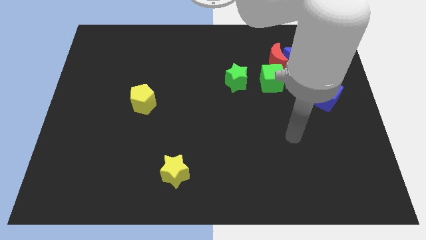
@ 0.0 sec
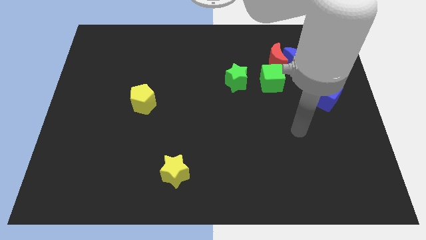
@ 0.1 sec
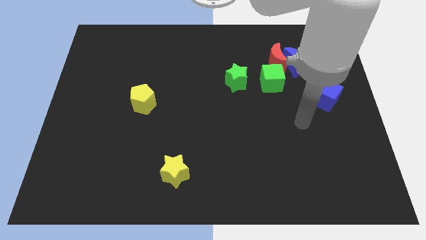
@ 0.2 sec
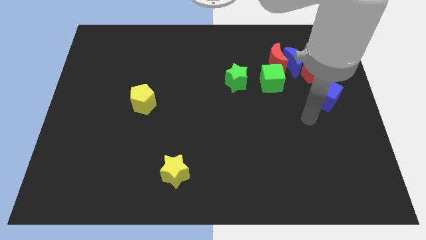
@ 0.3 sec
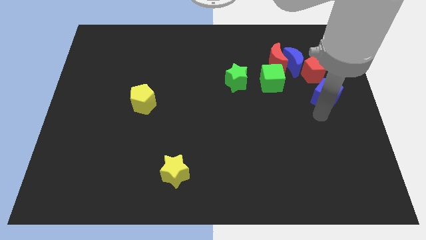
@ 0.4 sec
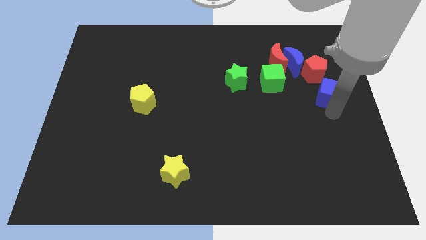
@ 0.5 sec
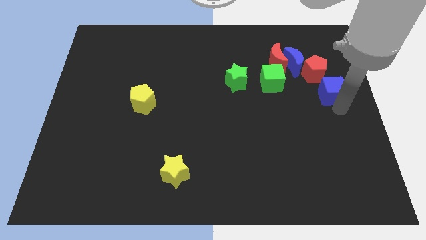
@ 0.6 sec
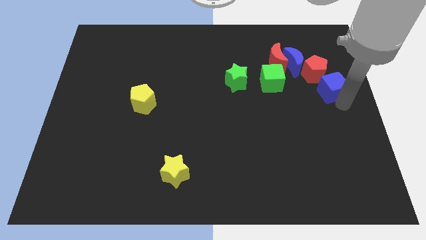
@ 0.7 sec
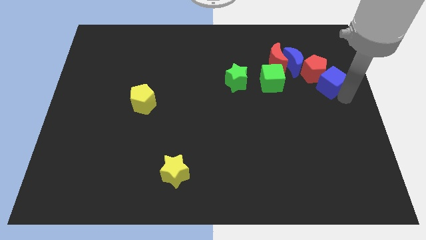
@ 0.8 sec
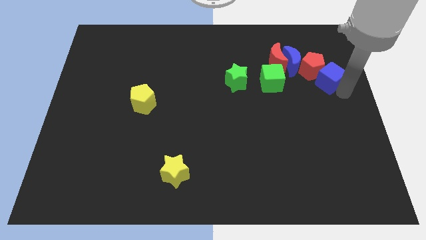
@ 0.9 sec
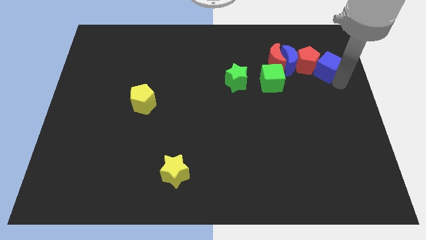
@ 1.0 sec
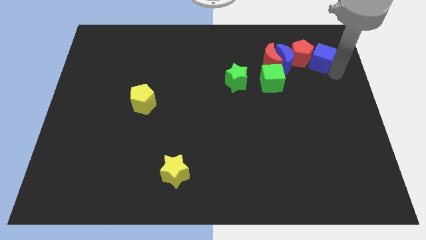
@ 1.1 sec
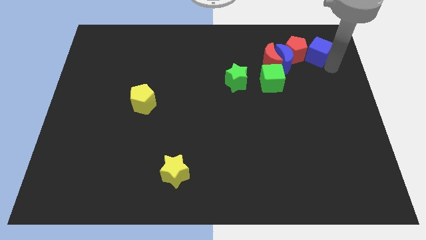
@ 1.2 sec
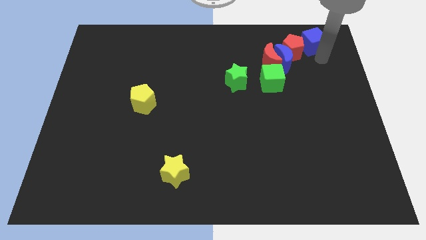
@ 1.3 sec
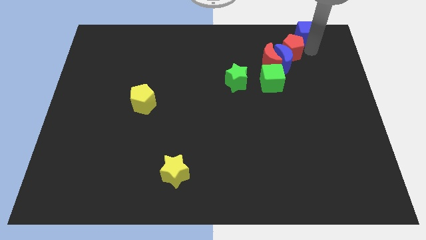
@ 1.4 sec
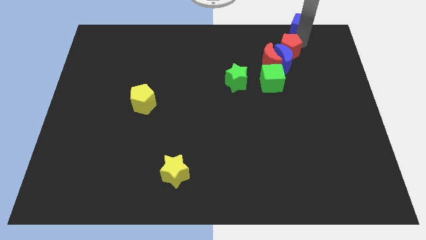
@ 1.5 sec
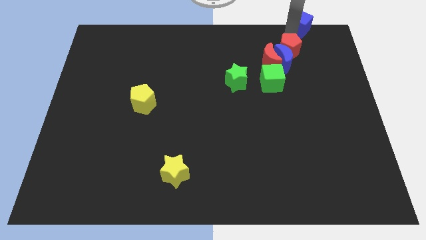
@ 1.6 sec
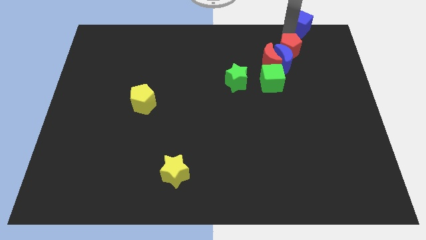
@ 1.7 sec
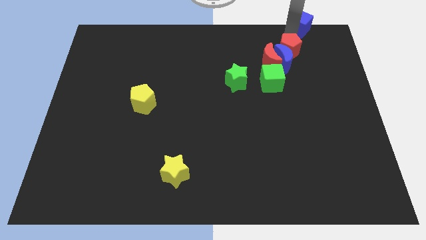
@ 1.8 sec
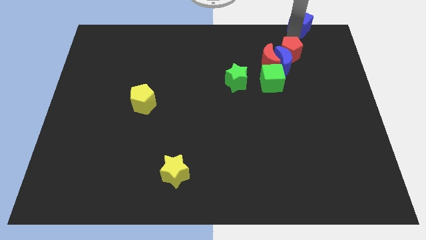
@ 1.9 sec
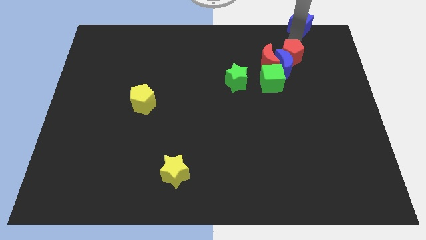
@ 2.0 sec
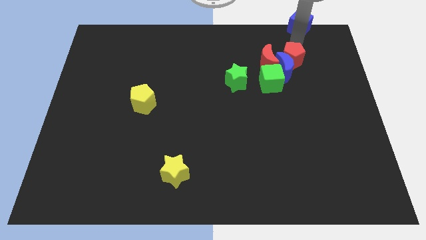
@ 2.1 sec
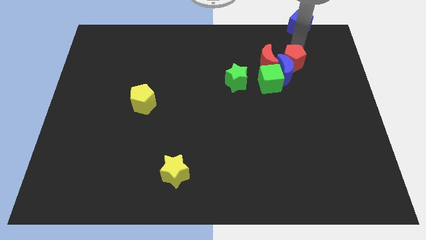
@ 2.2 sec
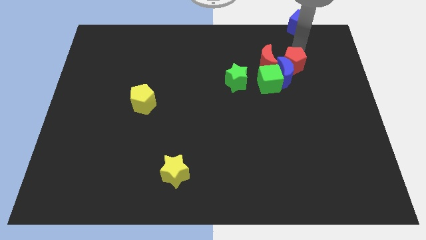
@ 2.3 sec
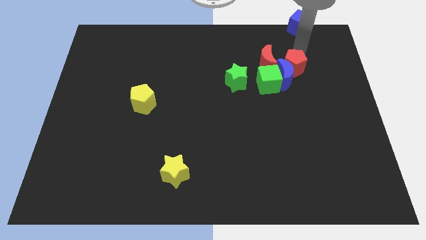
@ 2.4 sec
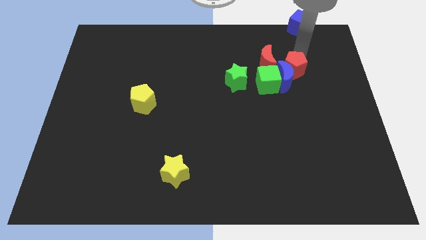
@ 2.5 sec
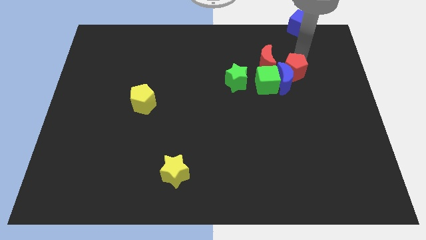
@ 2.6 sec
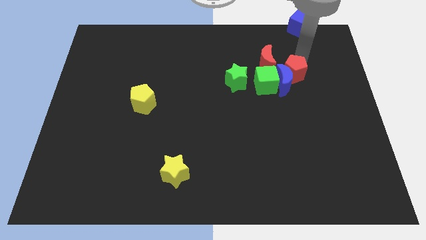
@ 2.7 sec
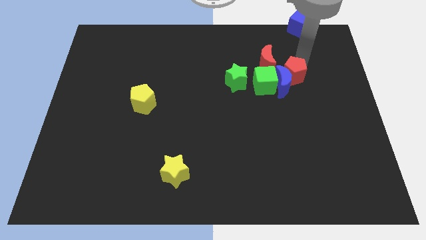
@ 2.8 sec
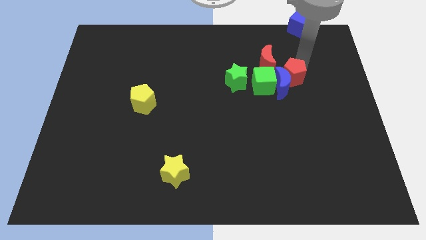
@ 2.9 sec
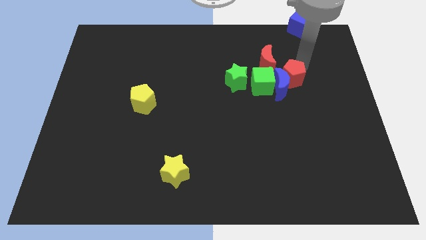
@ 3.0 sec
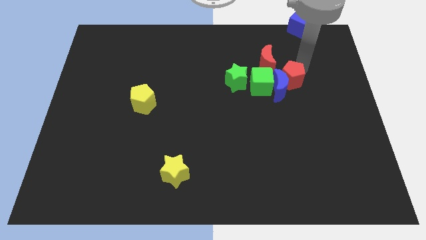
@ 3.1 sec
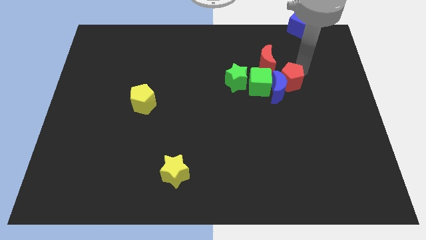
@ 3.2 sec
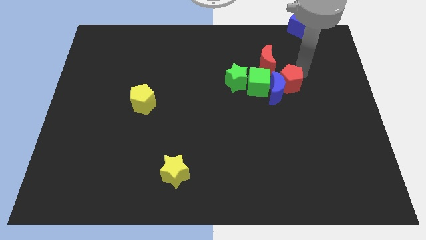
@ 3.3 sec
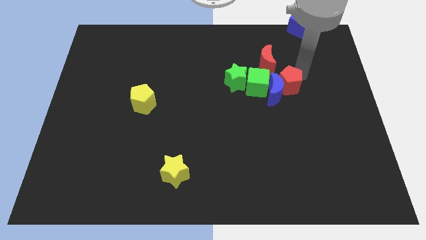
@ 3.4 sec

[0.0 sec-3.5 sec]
slightly slide the red pentagon down and then to the left

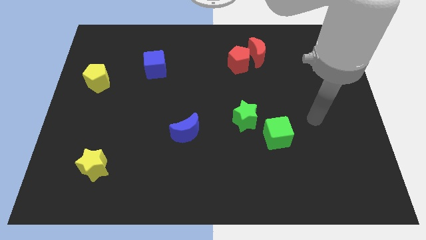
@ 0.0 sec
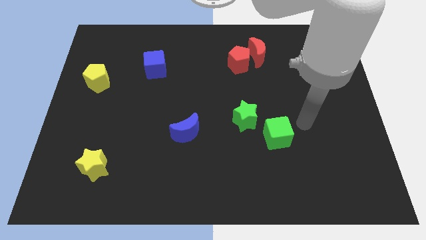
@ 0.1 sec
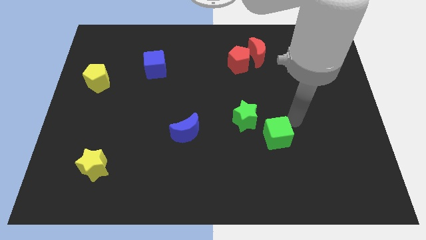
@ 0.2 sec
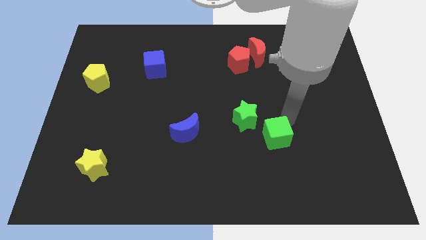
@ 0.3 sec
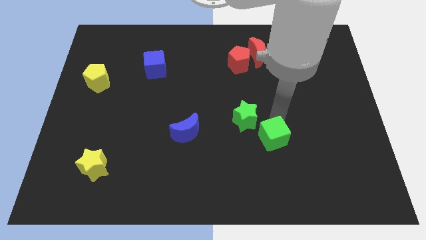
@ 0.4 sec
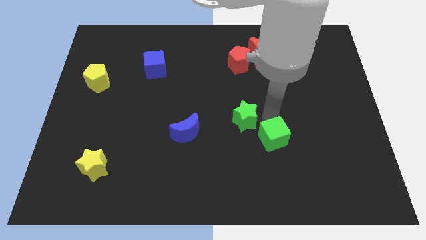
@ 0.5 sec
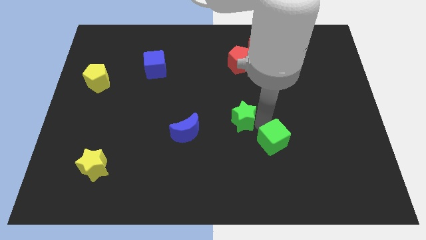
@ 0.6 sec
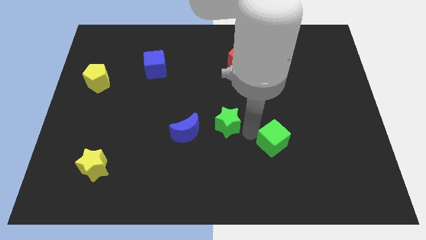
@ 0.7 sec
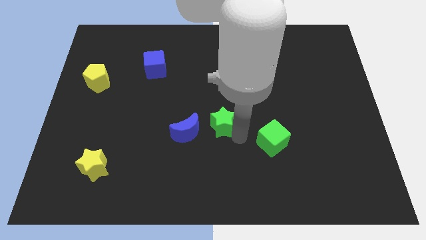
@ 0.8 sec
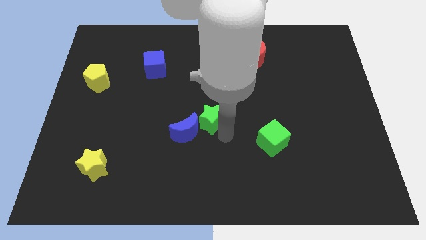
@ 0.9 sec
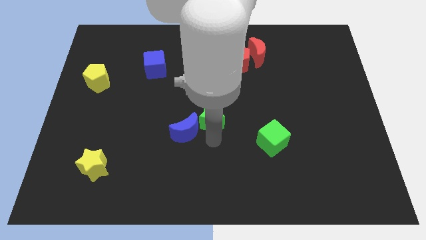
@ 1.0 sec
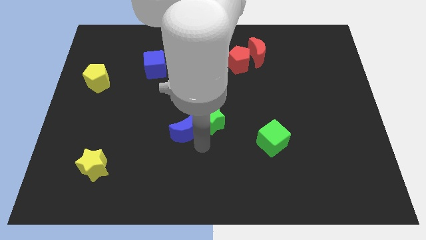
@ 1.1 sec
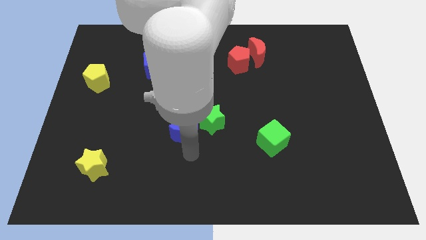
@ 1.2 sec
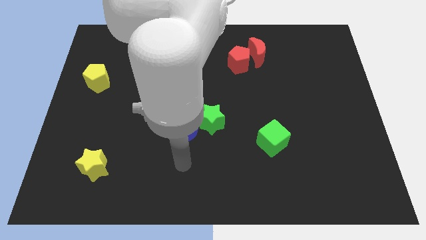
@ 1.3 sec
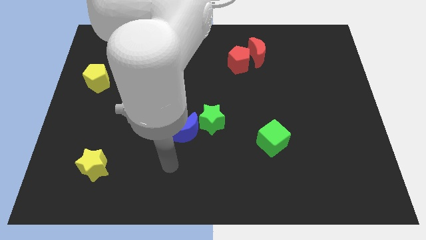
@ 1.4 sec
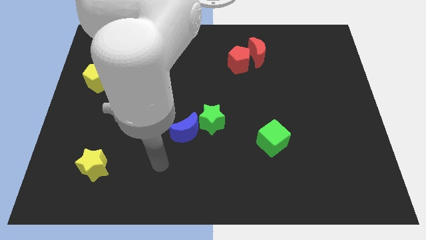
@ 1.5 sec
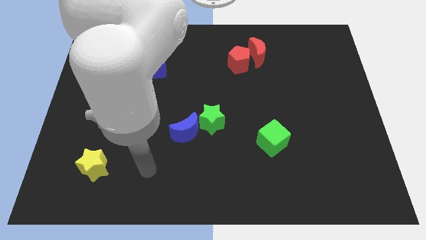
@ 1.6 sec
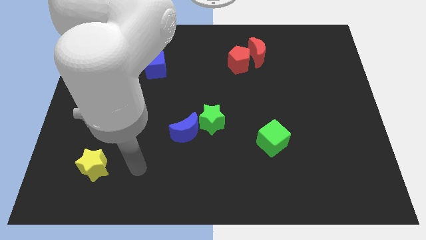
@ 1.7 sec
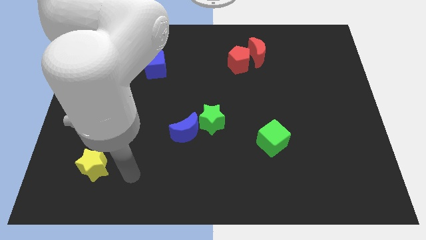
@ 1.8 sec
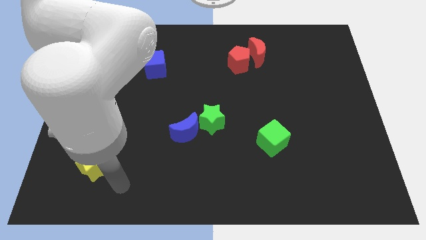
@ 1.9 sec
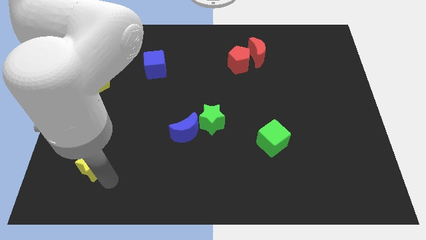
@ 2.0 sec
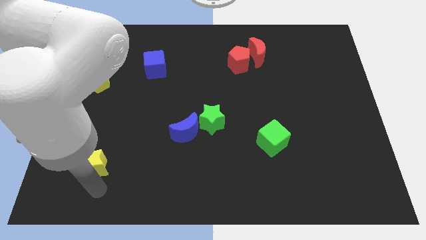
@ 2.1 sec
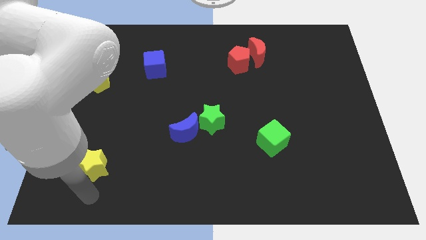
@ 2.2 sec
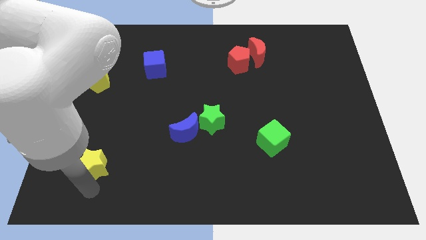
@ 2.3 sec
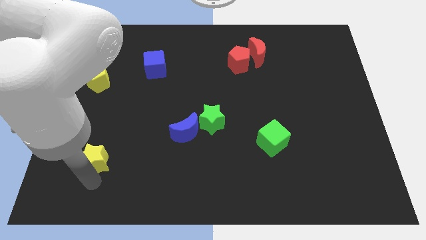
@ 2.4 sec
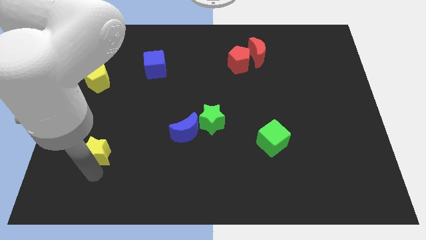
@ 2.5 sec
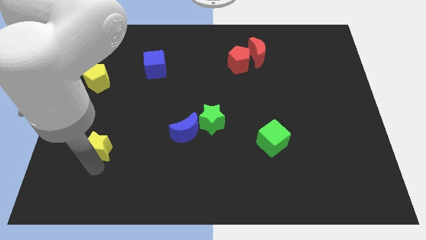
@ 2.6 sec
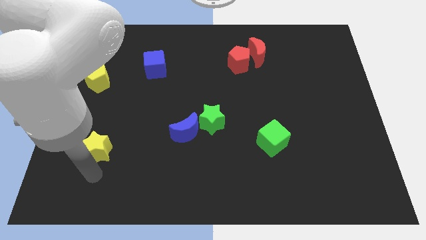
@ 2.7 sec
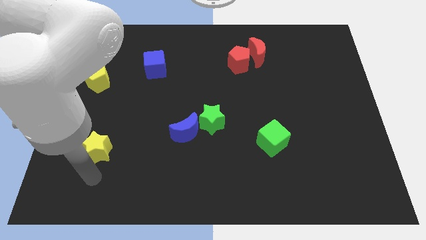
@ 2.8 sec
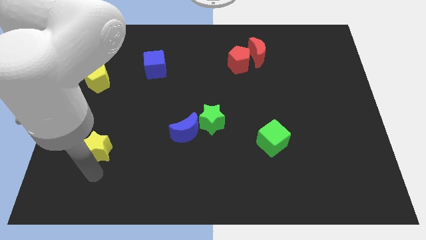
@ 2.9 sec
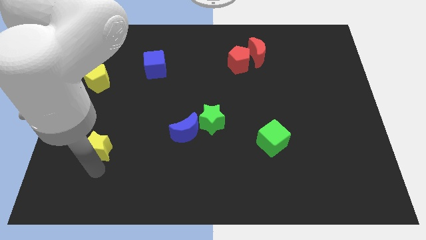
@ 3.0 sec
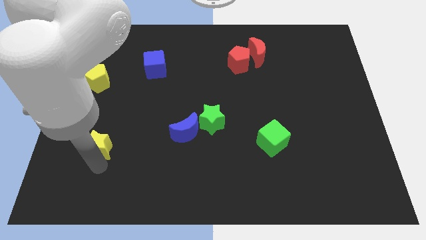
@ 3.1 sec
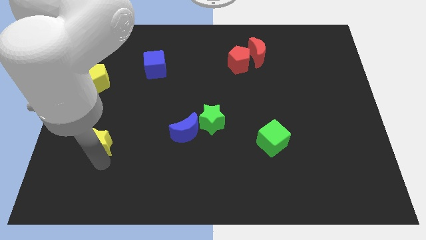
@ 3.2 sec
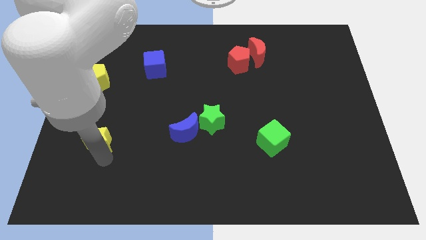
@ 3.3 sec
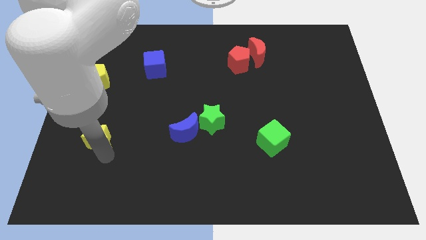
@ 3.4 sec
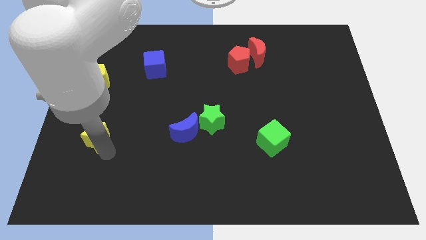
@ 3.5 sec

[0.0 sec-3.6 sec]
slightly move the yellow star upwards

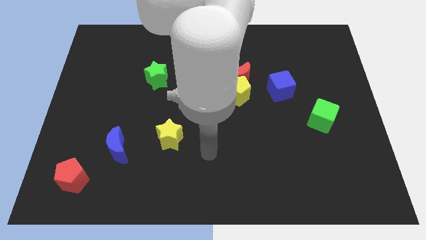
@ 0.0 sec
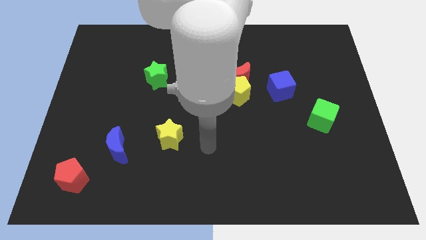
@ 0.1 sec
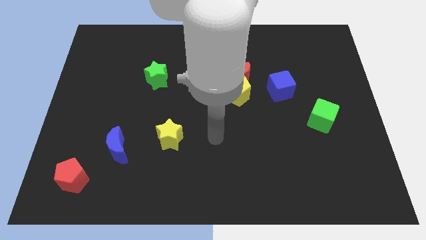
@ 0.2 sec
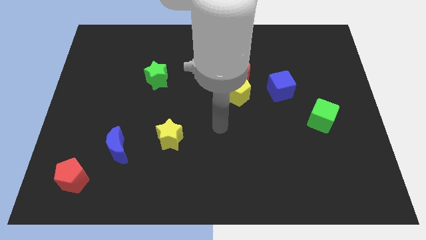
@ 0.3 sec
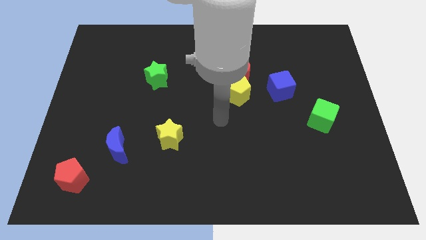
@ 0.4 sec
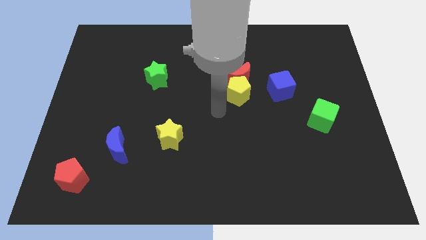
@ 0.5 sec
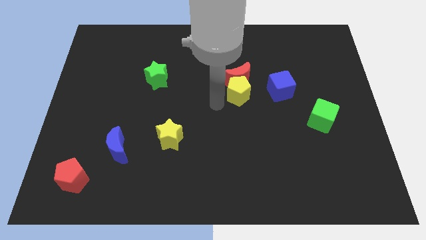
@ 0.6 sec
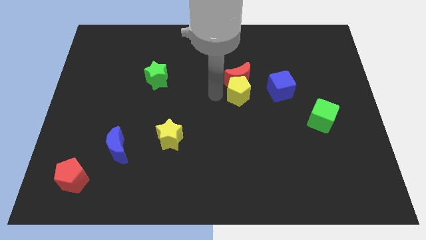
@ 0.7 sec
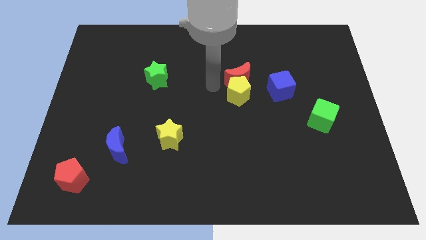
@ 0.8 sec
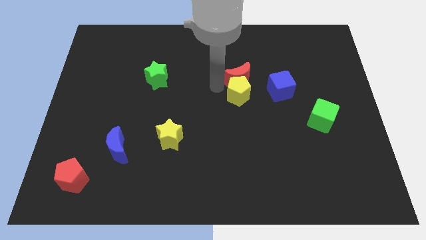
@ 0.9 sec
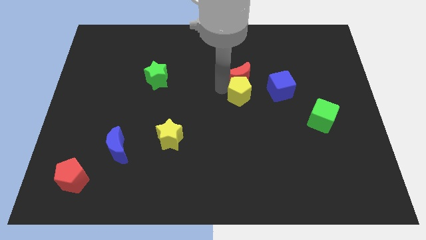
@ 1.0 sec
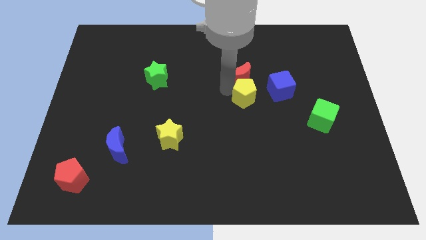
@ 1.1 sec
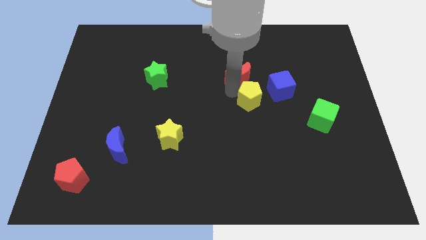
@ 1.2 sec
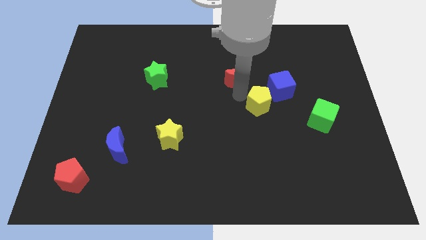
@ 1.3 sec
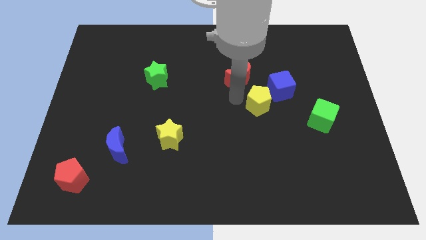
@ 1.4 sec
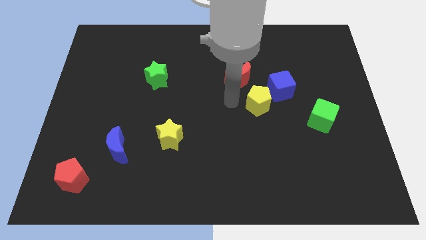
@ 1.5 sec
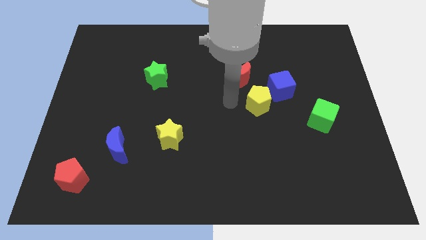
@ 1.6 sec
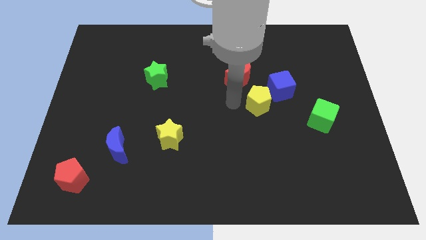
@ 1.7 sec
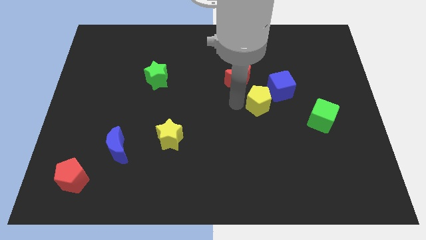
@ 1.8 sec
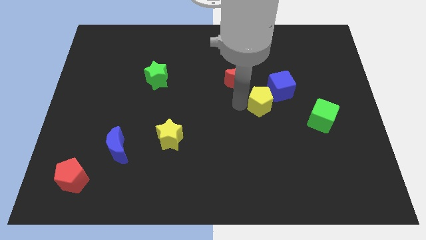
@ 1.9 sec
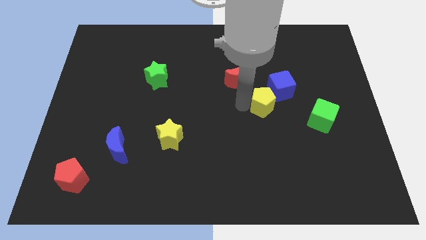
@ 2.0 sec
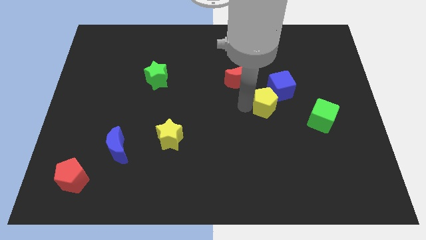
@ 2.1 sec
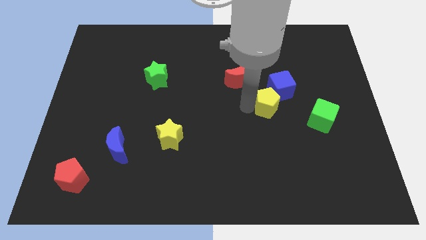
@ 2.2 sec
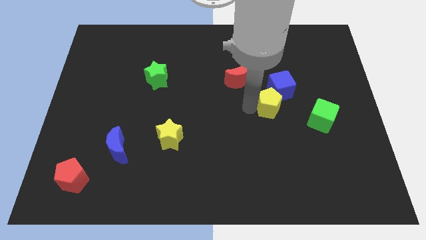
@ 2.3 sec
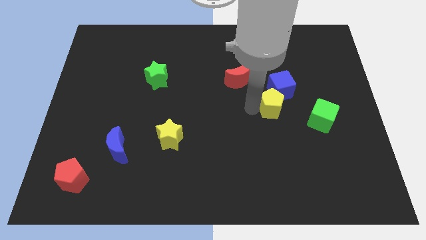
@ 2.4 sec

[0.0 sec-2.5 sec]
push the yellow pentagon right a little bit
